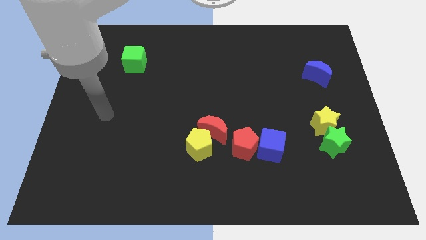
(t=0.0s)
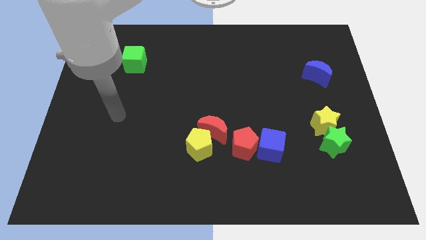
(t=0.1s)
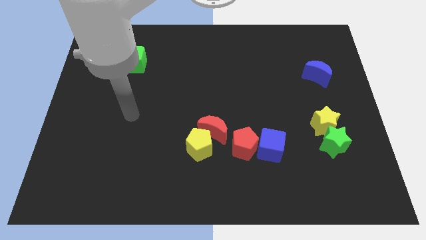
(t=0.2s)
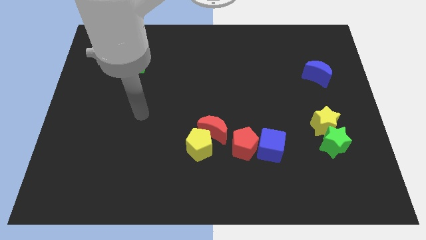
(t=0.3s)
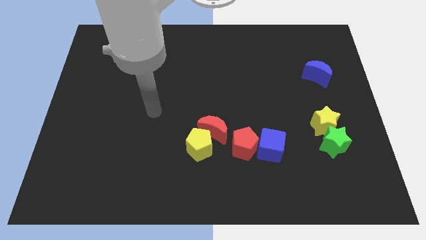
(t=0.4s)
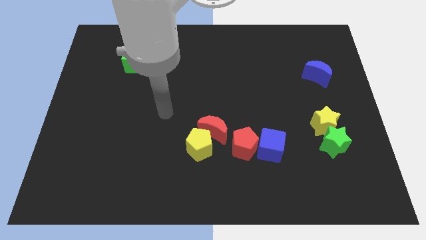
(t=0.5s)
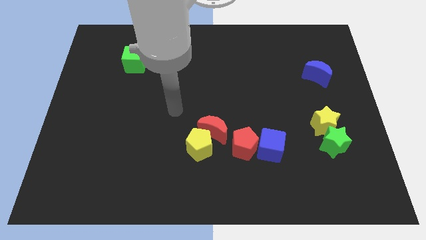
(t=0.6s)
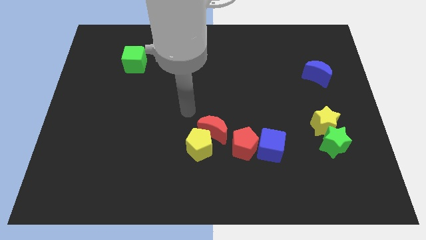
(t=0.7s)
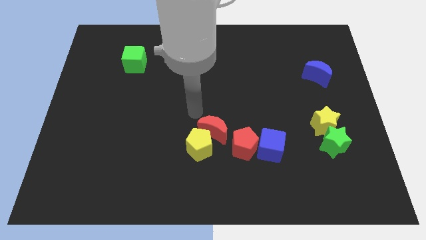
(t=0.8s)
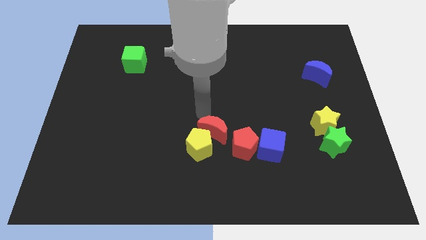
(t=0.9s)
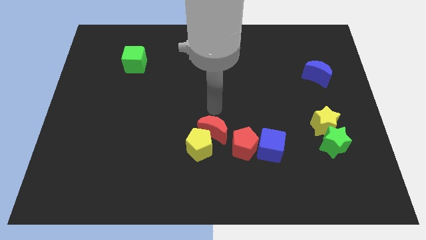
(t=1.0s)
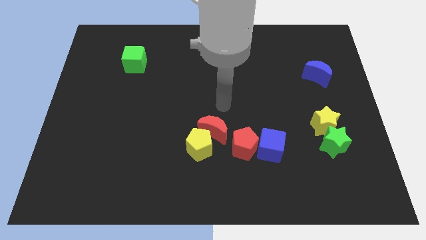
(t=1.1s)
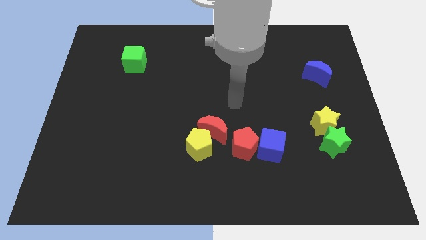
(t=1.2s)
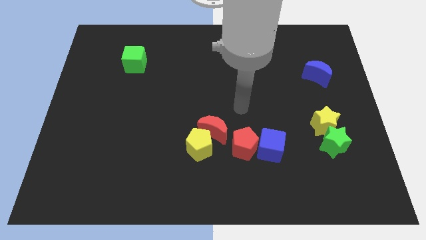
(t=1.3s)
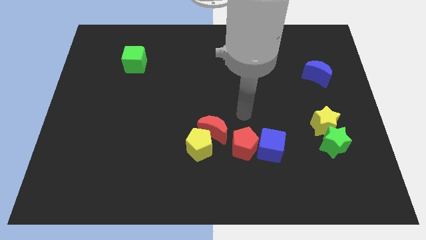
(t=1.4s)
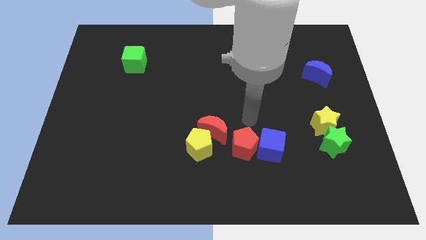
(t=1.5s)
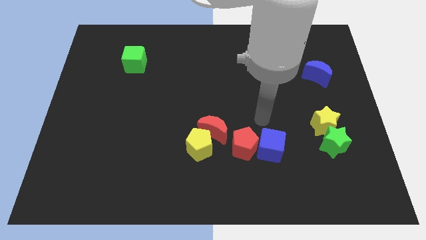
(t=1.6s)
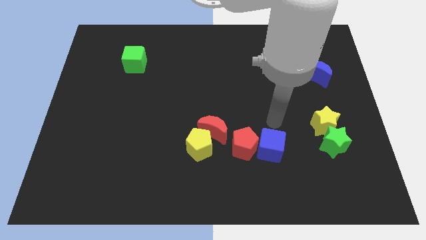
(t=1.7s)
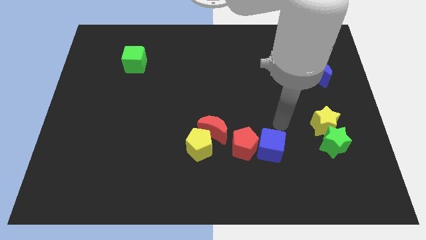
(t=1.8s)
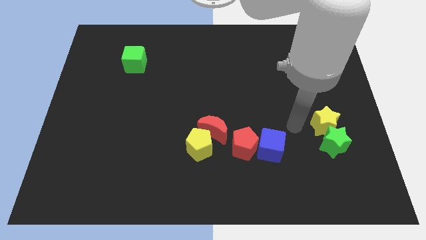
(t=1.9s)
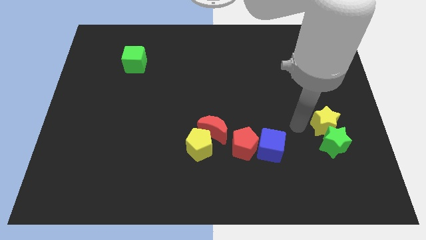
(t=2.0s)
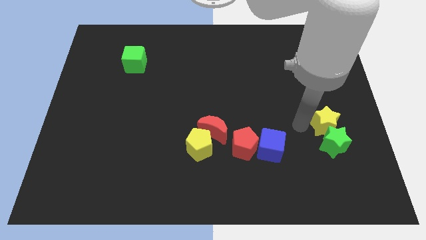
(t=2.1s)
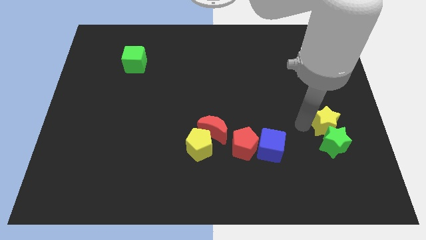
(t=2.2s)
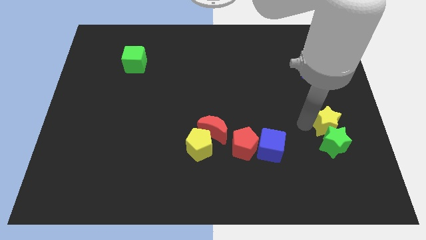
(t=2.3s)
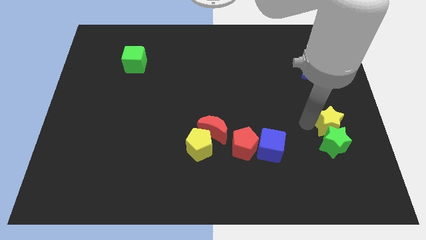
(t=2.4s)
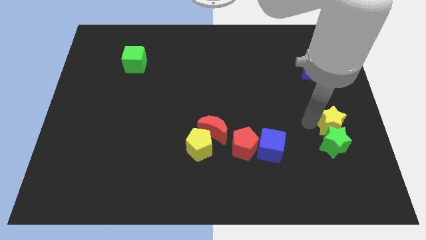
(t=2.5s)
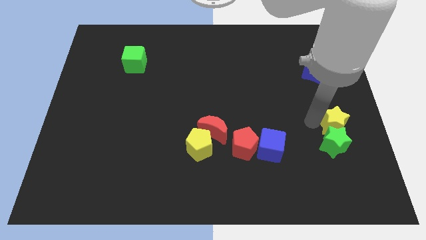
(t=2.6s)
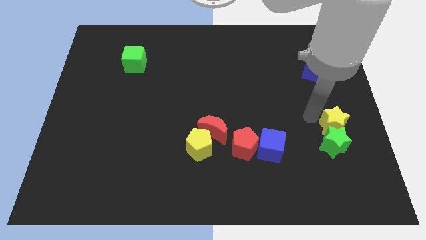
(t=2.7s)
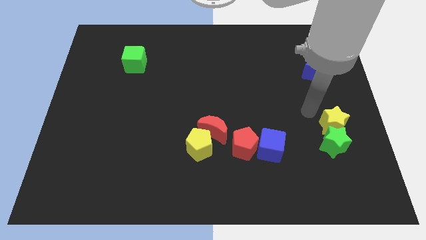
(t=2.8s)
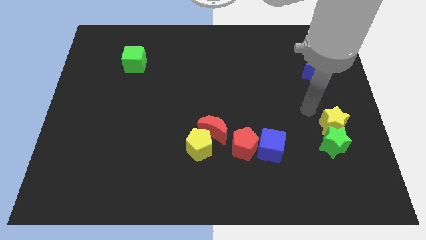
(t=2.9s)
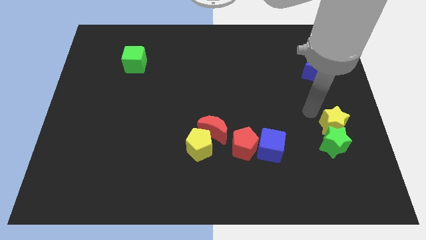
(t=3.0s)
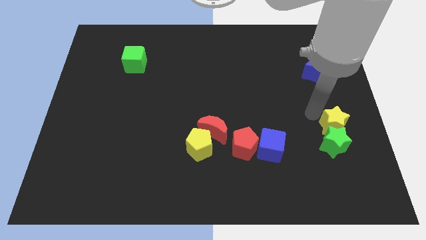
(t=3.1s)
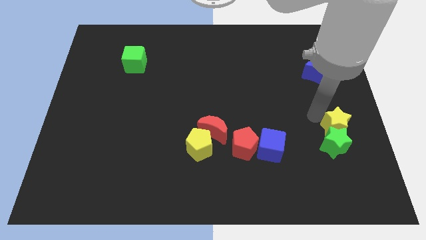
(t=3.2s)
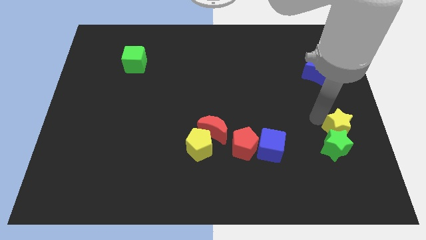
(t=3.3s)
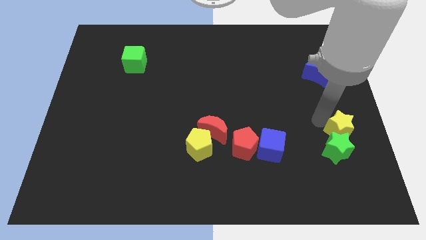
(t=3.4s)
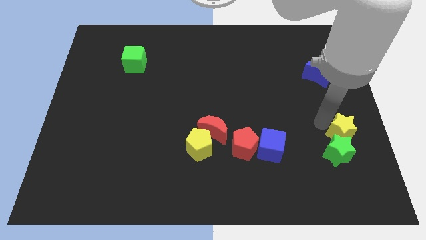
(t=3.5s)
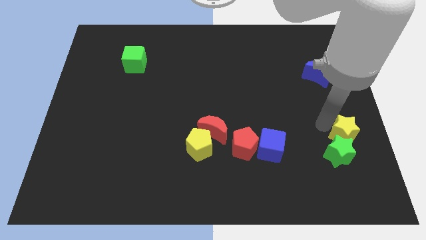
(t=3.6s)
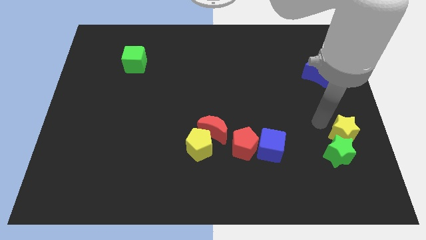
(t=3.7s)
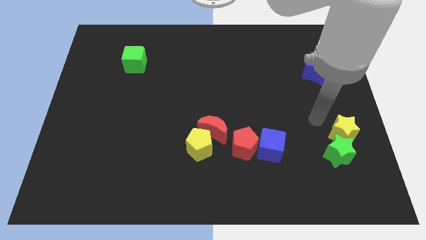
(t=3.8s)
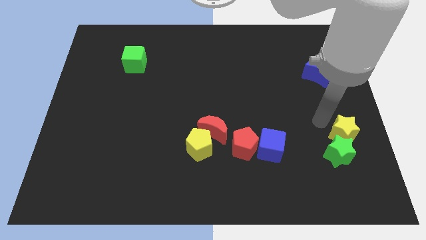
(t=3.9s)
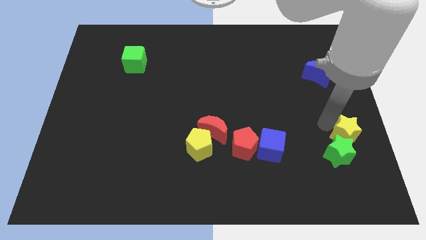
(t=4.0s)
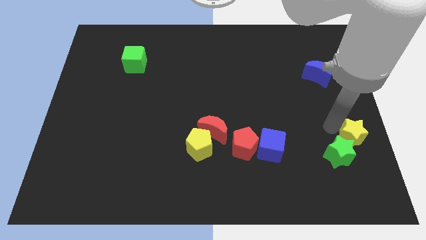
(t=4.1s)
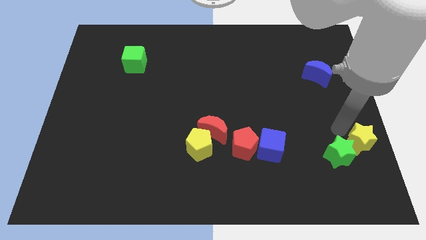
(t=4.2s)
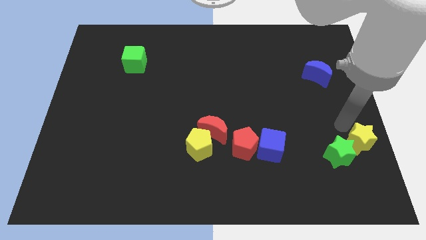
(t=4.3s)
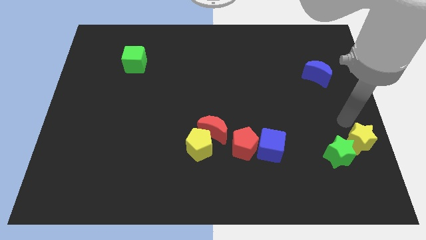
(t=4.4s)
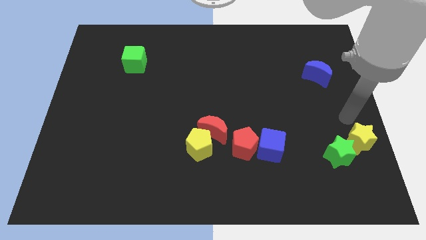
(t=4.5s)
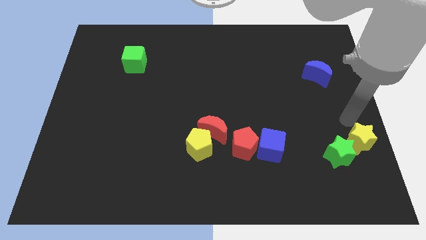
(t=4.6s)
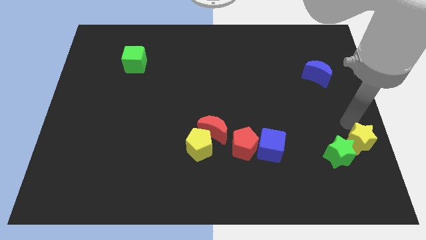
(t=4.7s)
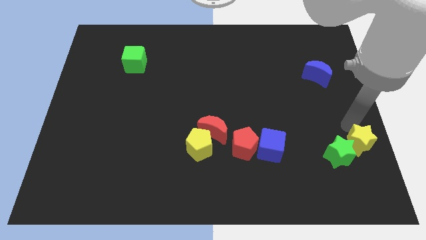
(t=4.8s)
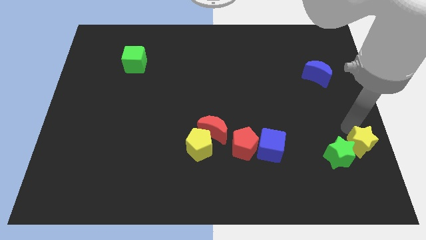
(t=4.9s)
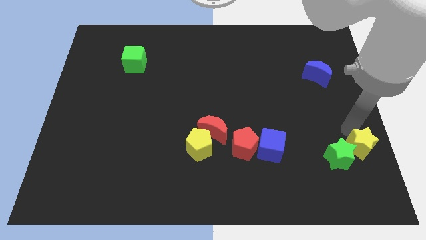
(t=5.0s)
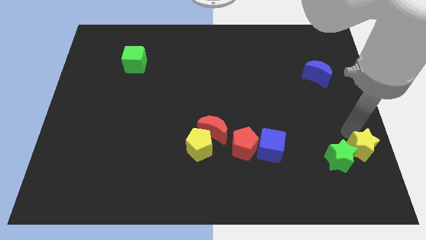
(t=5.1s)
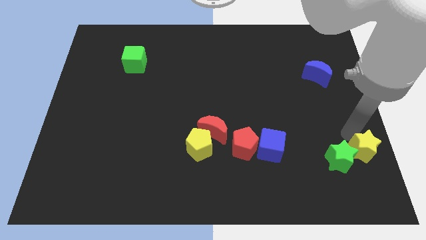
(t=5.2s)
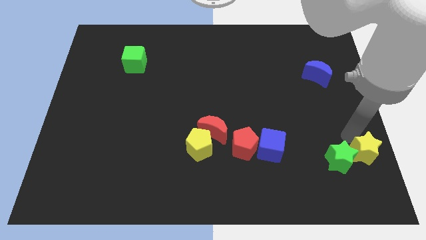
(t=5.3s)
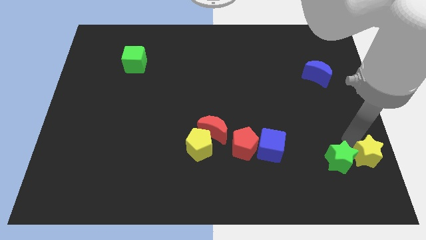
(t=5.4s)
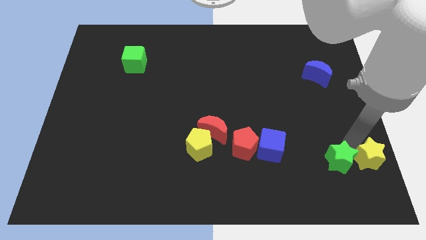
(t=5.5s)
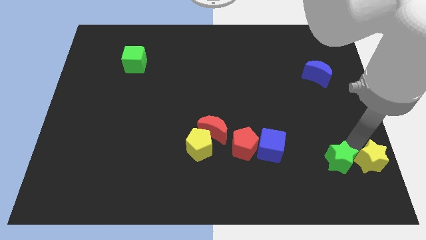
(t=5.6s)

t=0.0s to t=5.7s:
put the yellow star to the bottom right of the board

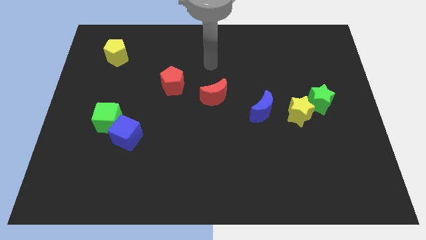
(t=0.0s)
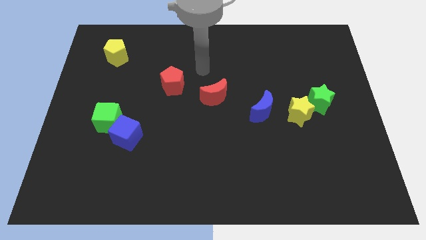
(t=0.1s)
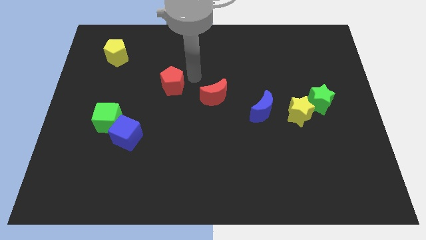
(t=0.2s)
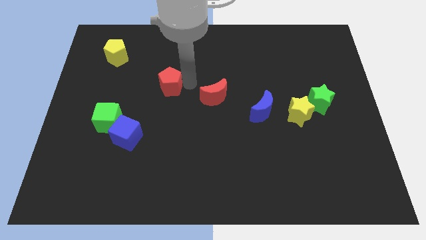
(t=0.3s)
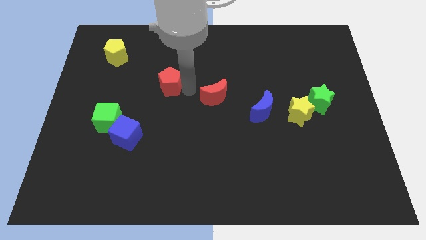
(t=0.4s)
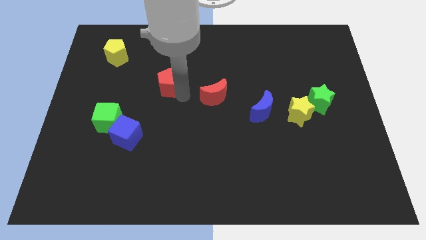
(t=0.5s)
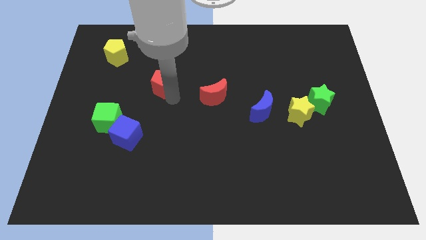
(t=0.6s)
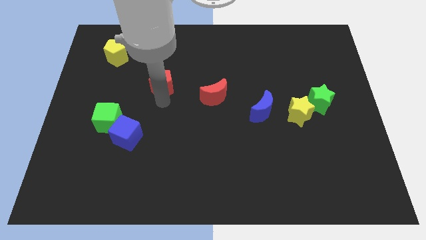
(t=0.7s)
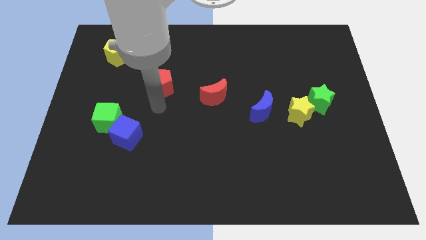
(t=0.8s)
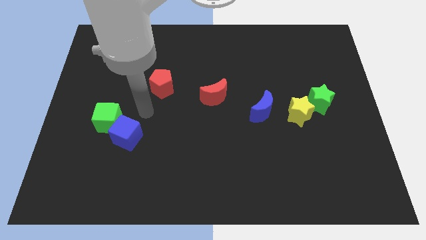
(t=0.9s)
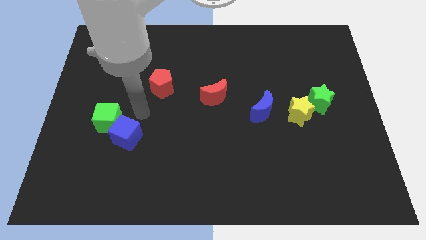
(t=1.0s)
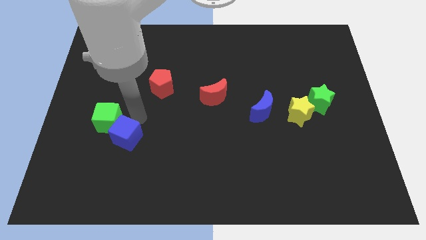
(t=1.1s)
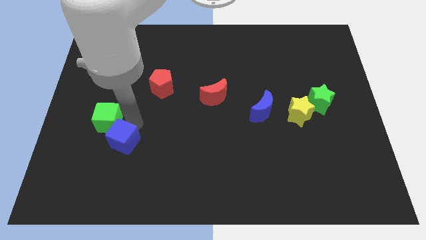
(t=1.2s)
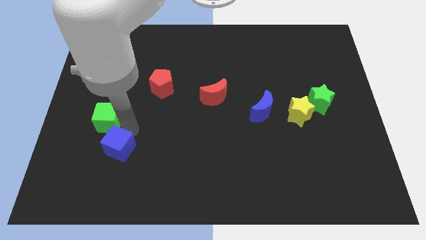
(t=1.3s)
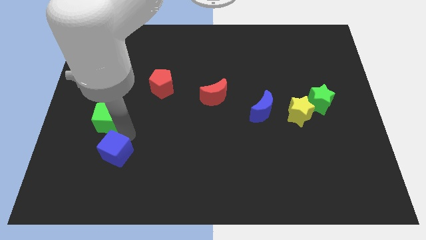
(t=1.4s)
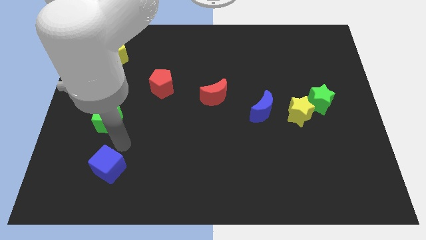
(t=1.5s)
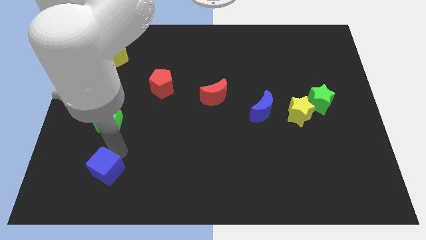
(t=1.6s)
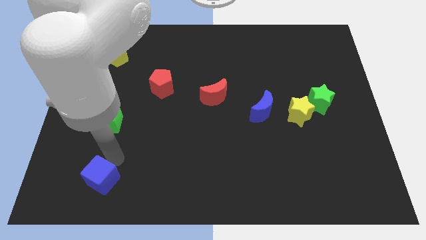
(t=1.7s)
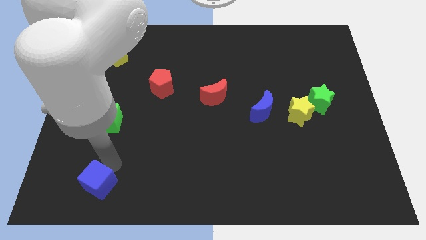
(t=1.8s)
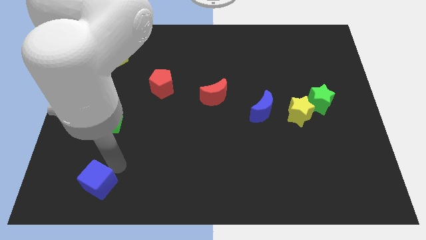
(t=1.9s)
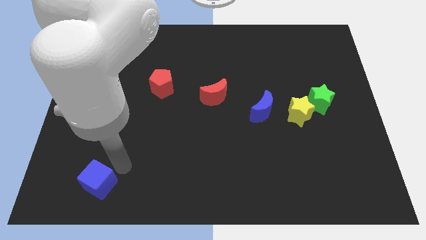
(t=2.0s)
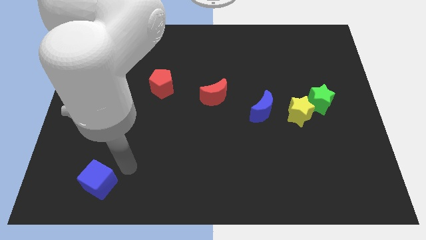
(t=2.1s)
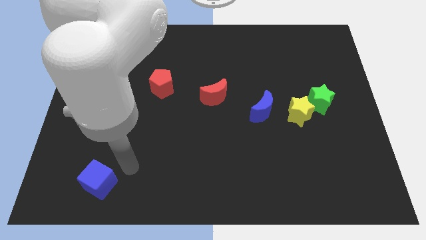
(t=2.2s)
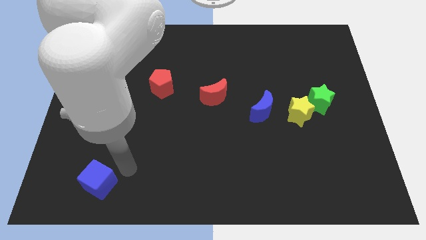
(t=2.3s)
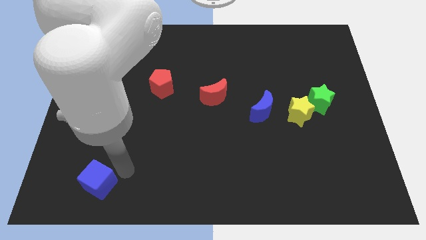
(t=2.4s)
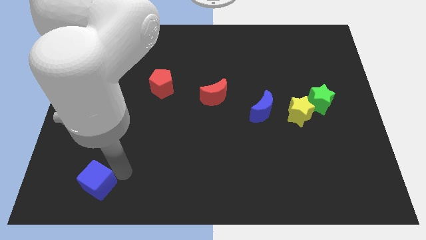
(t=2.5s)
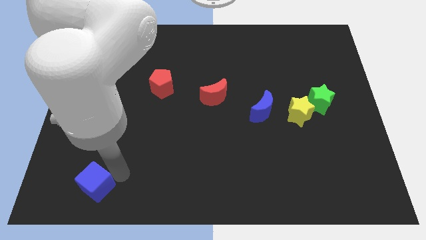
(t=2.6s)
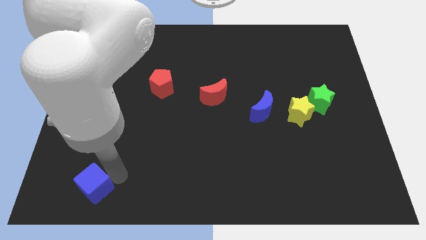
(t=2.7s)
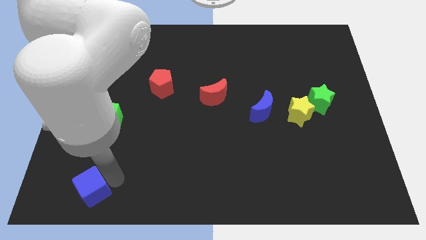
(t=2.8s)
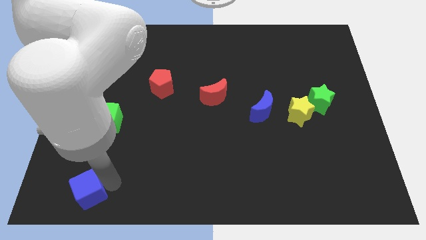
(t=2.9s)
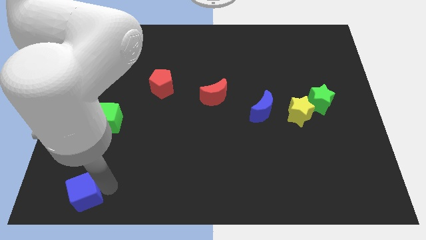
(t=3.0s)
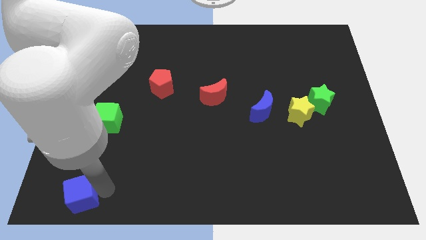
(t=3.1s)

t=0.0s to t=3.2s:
move the blue cube to the lower left corner
